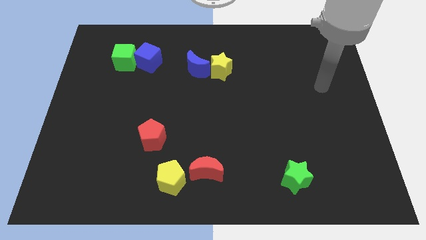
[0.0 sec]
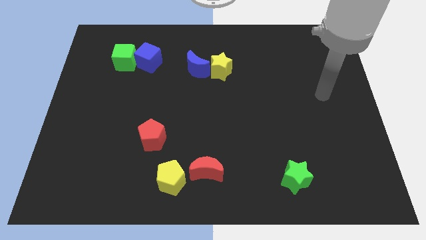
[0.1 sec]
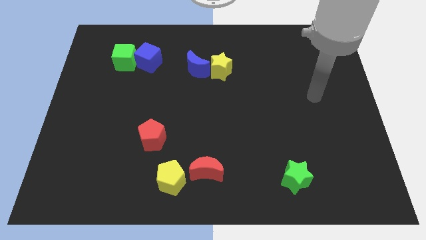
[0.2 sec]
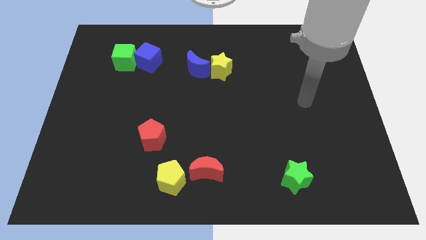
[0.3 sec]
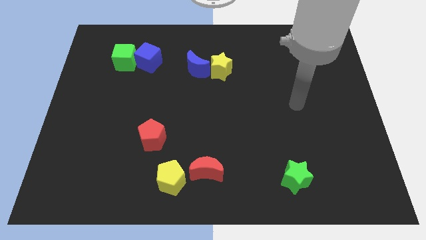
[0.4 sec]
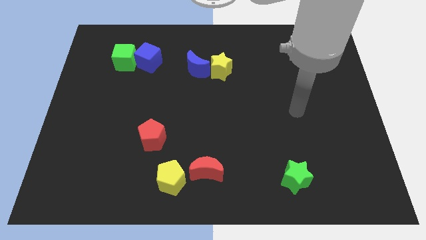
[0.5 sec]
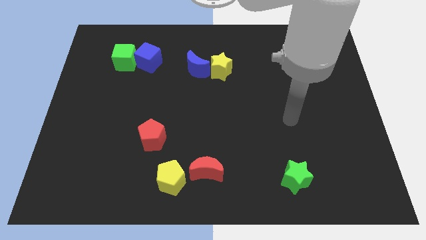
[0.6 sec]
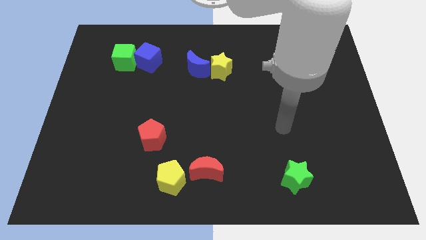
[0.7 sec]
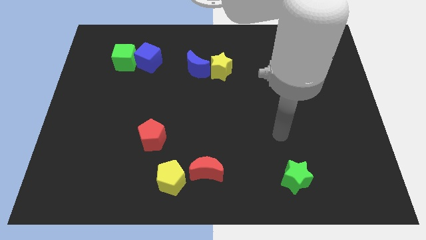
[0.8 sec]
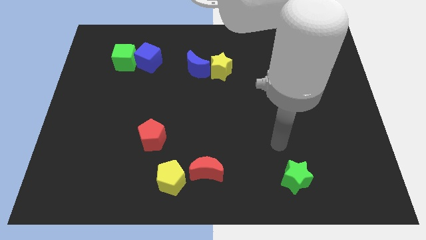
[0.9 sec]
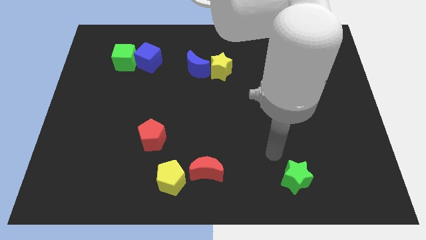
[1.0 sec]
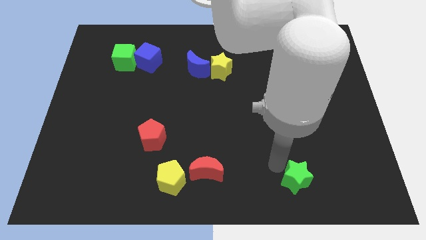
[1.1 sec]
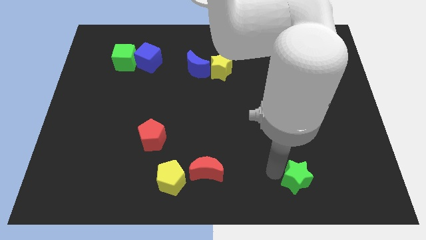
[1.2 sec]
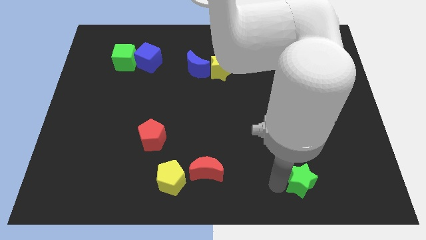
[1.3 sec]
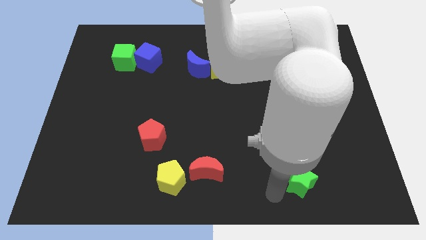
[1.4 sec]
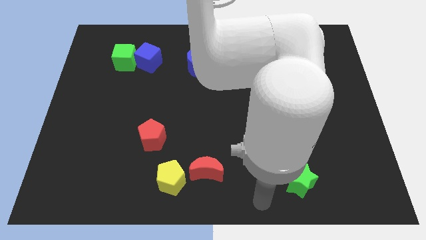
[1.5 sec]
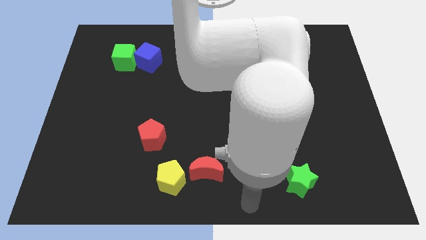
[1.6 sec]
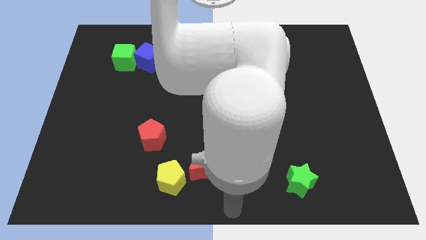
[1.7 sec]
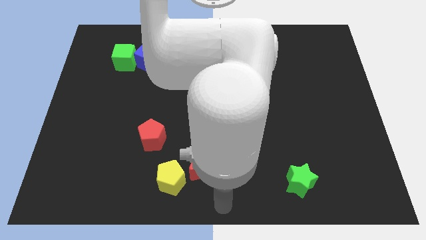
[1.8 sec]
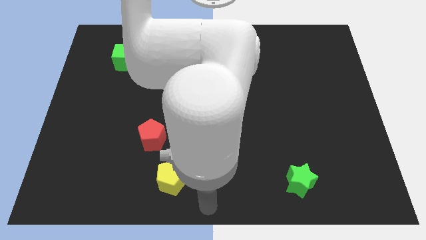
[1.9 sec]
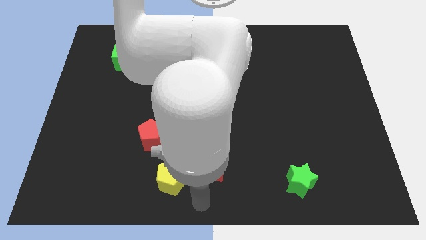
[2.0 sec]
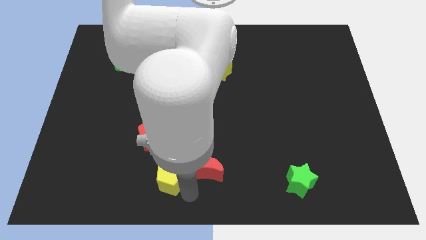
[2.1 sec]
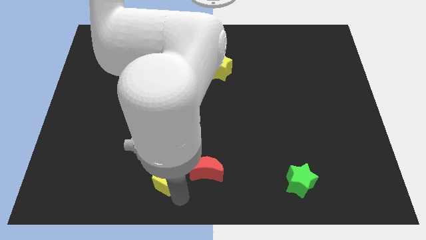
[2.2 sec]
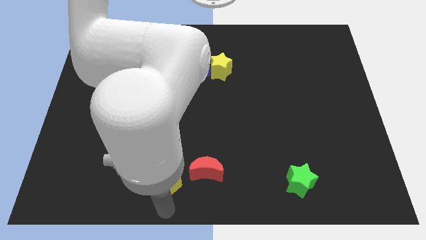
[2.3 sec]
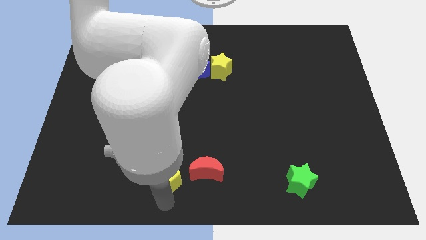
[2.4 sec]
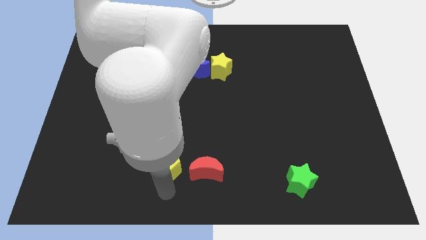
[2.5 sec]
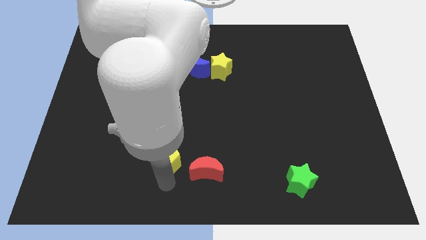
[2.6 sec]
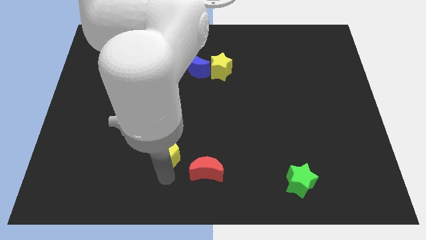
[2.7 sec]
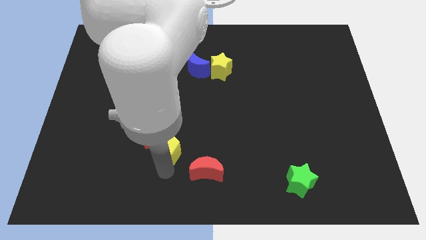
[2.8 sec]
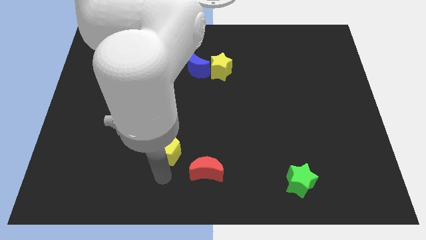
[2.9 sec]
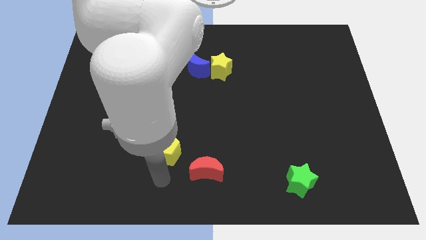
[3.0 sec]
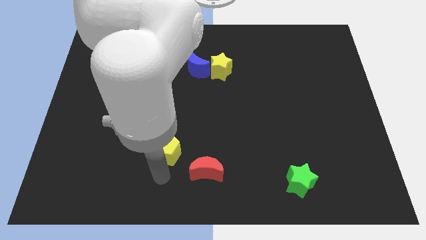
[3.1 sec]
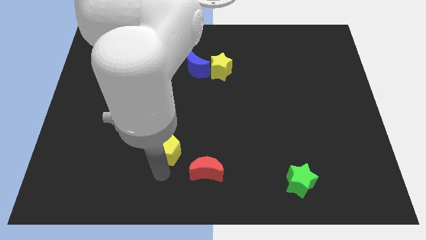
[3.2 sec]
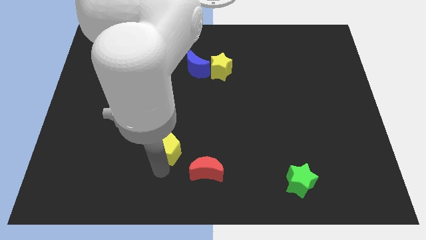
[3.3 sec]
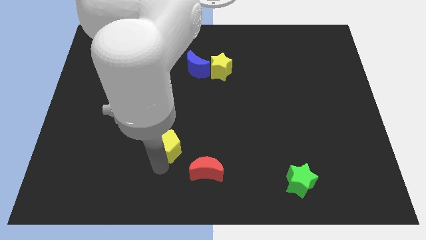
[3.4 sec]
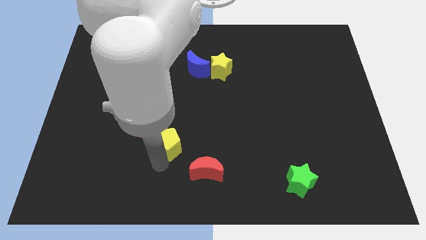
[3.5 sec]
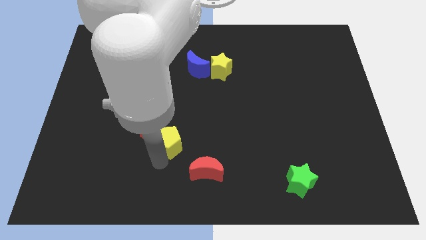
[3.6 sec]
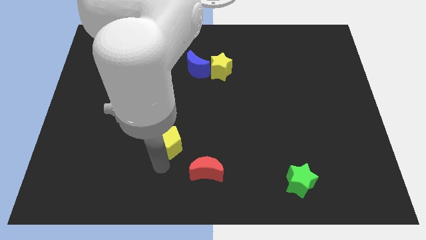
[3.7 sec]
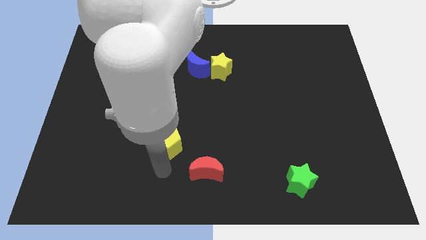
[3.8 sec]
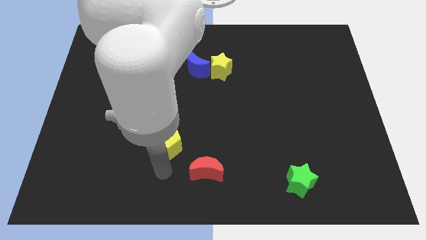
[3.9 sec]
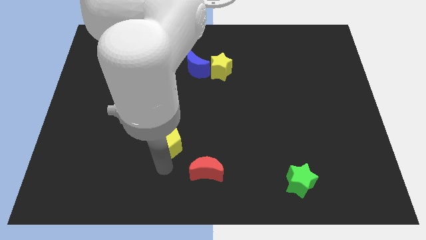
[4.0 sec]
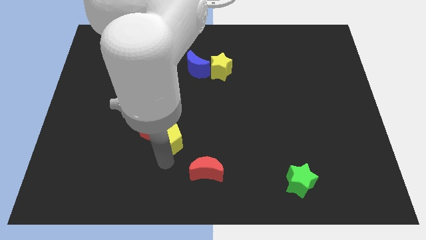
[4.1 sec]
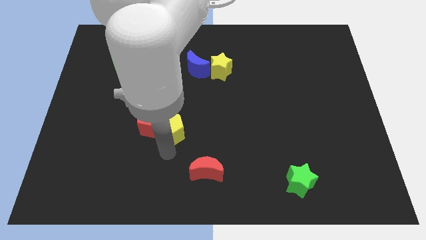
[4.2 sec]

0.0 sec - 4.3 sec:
move the yellow pentagon to the top right side of the red pentagon

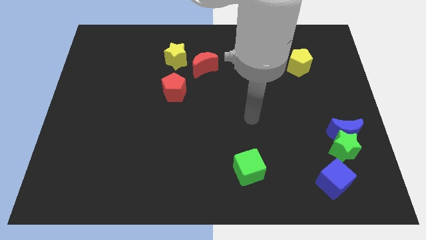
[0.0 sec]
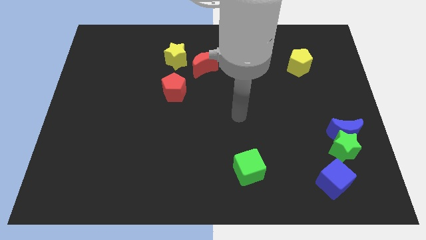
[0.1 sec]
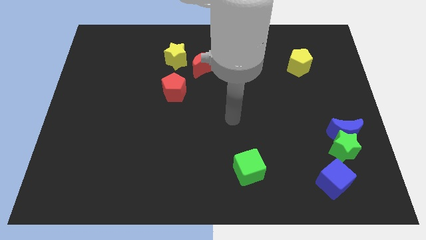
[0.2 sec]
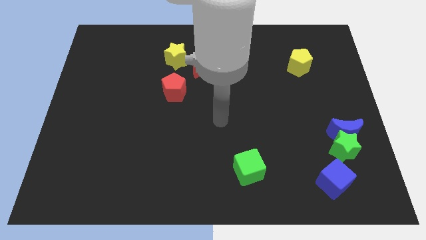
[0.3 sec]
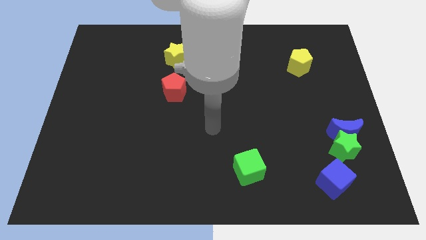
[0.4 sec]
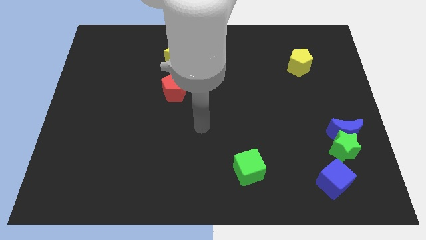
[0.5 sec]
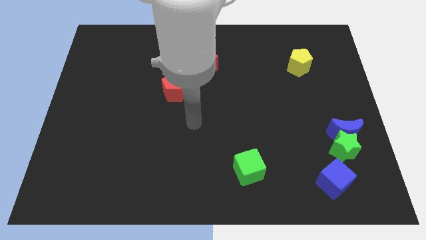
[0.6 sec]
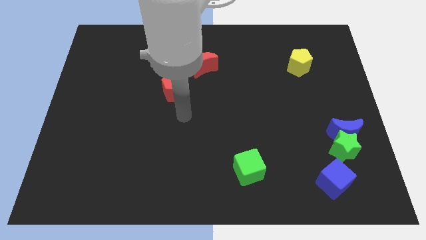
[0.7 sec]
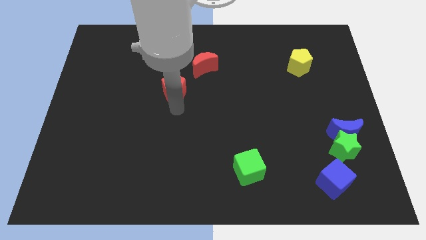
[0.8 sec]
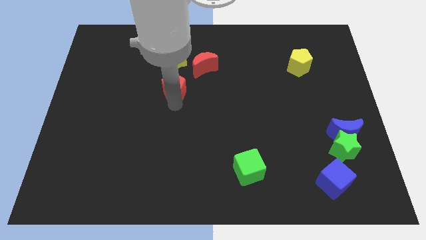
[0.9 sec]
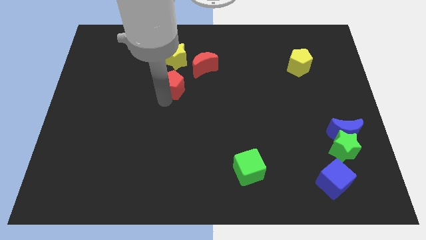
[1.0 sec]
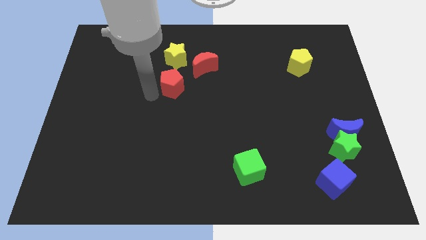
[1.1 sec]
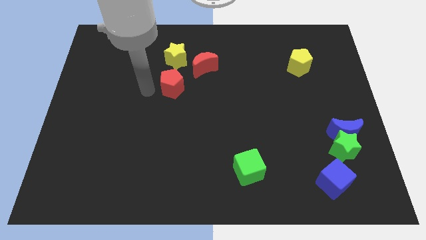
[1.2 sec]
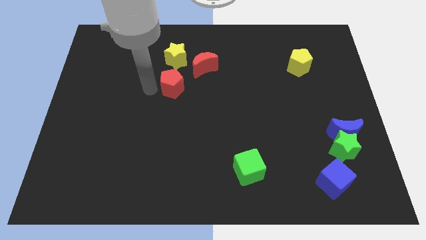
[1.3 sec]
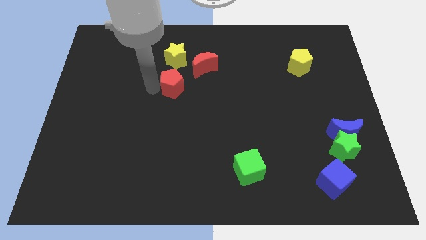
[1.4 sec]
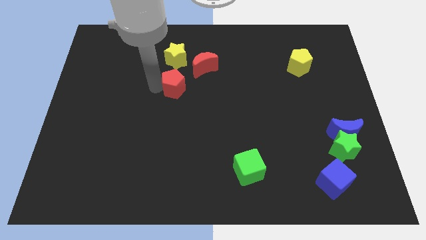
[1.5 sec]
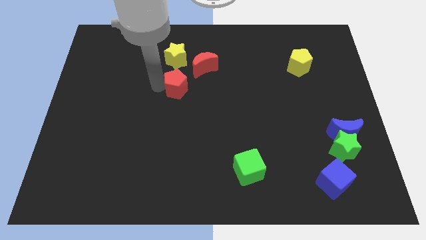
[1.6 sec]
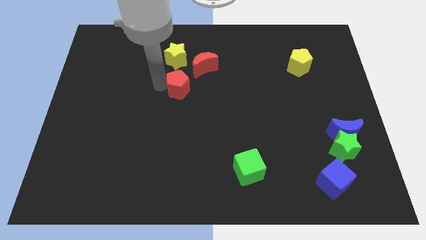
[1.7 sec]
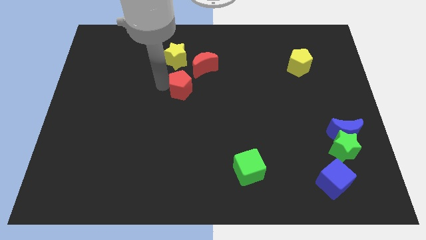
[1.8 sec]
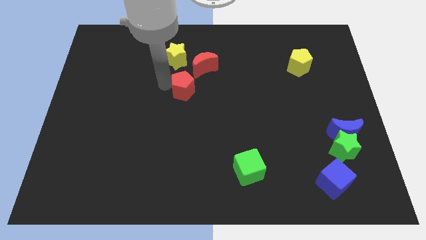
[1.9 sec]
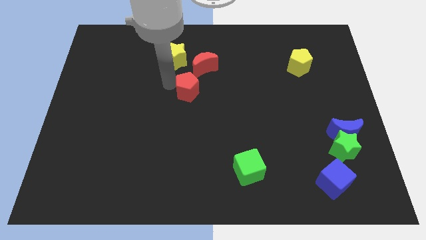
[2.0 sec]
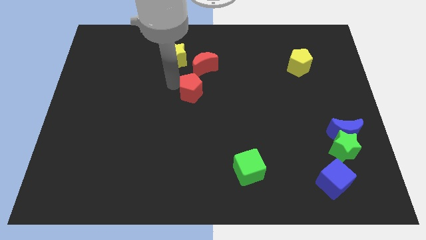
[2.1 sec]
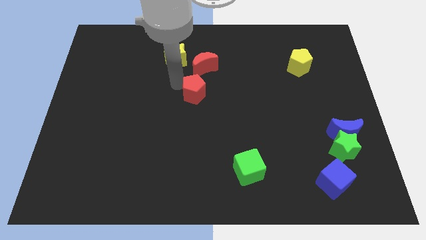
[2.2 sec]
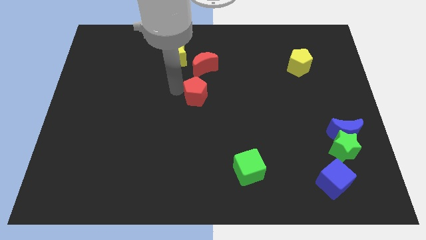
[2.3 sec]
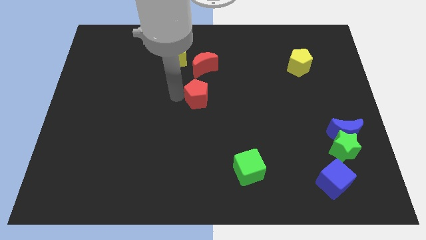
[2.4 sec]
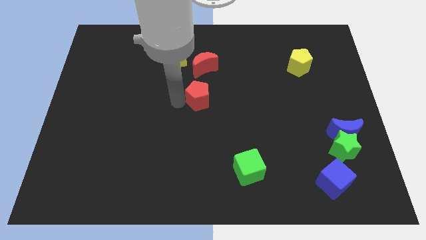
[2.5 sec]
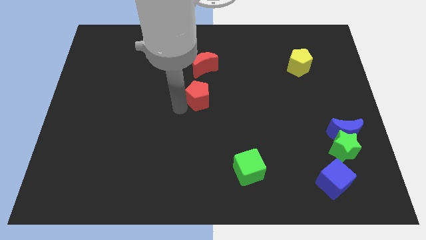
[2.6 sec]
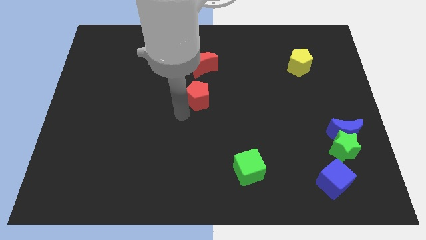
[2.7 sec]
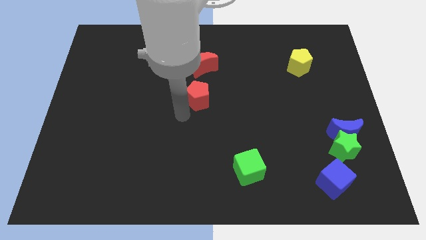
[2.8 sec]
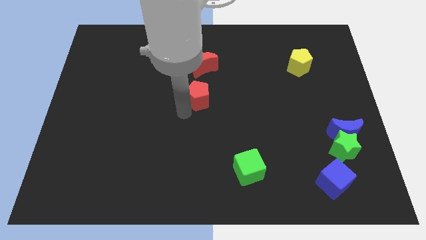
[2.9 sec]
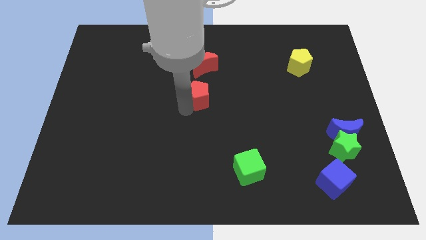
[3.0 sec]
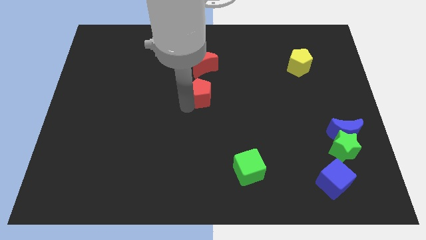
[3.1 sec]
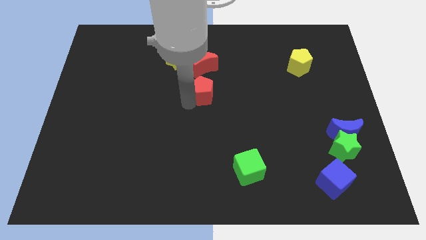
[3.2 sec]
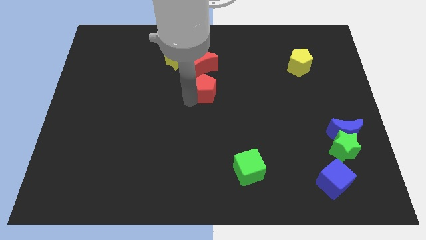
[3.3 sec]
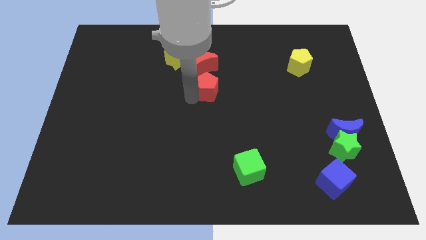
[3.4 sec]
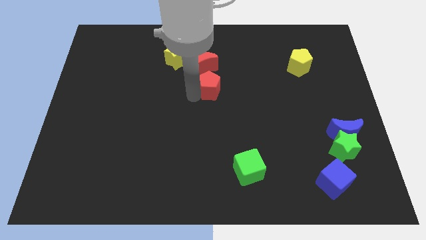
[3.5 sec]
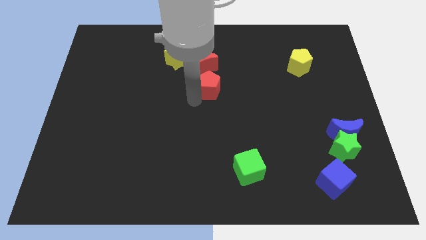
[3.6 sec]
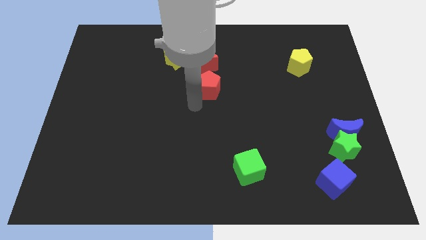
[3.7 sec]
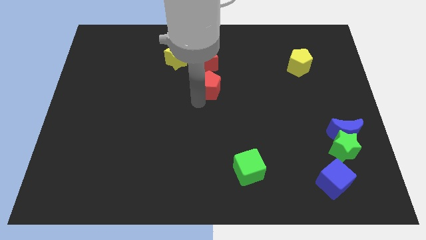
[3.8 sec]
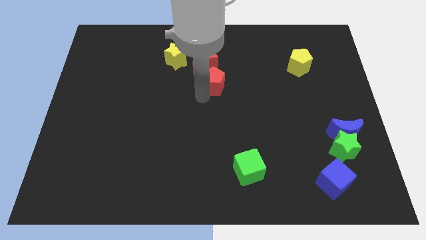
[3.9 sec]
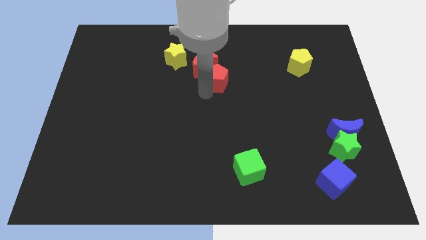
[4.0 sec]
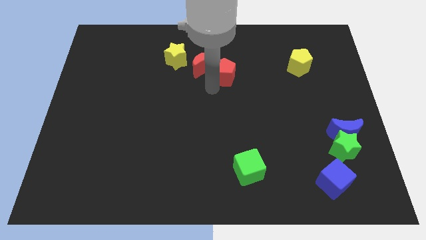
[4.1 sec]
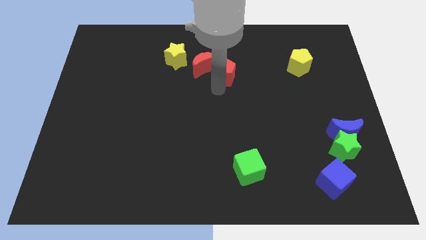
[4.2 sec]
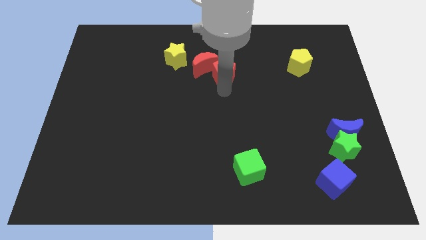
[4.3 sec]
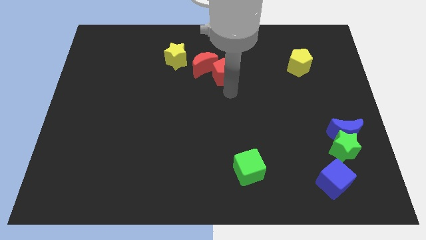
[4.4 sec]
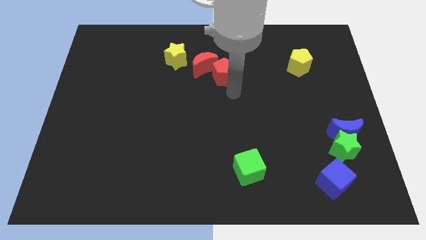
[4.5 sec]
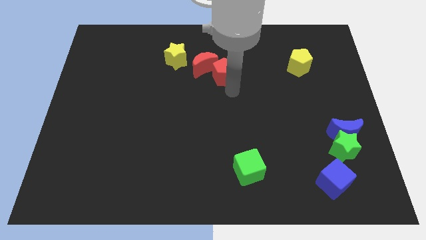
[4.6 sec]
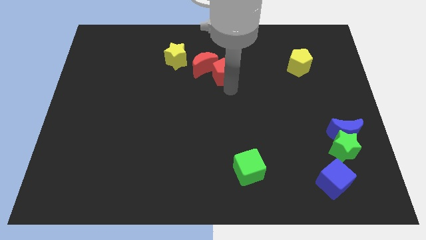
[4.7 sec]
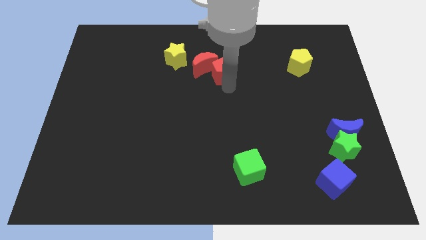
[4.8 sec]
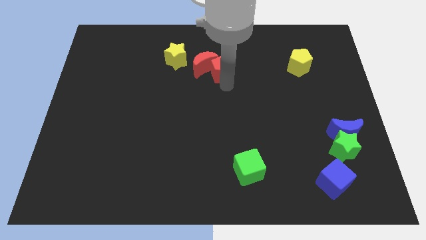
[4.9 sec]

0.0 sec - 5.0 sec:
slide the red pentagon to the right of the yellow star
